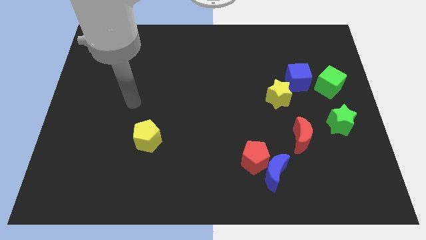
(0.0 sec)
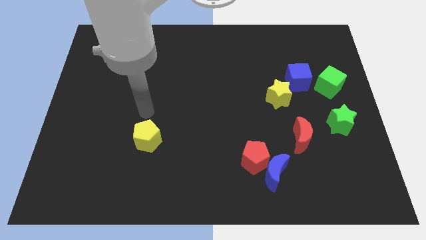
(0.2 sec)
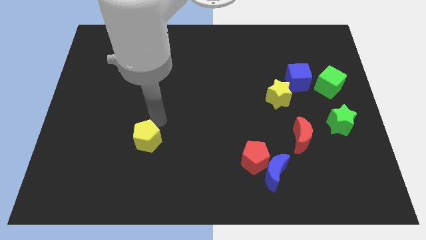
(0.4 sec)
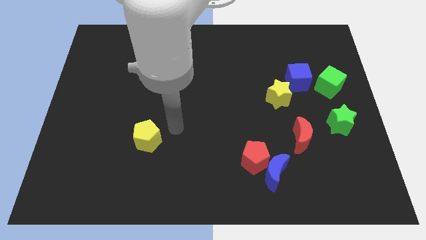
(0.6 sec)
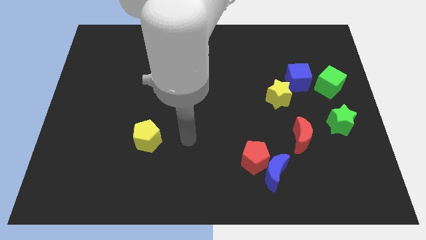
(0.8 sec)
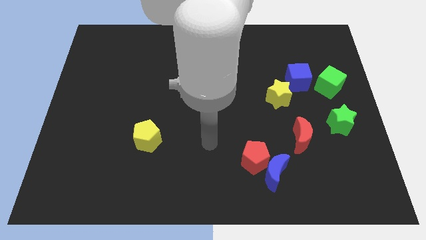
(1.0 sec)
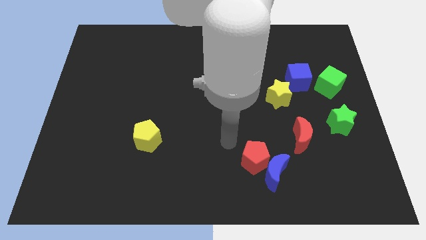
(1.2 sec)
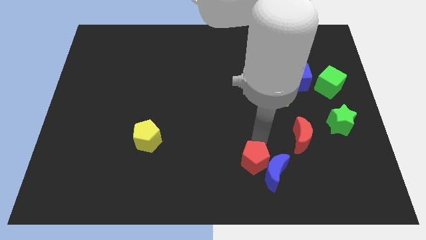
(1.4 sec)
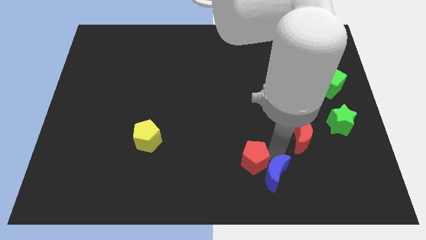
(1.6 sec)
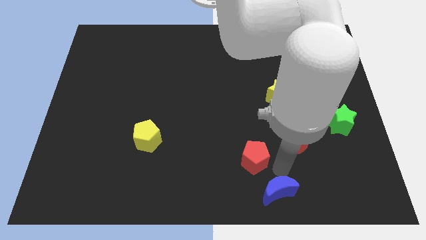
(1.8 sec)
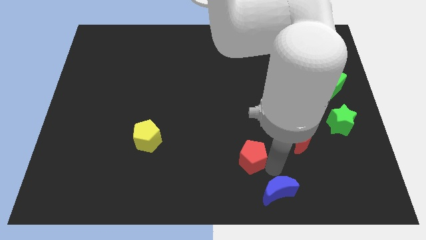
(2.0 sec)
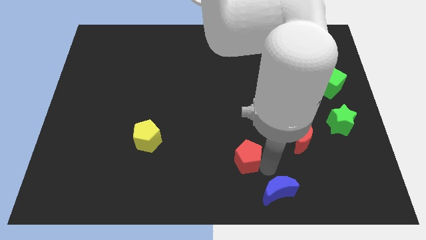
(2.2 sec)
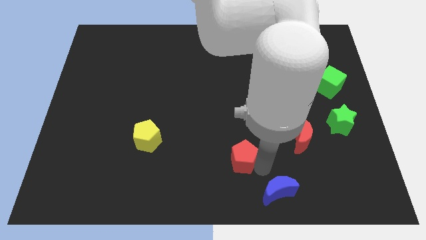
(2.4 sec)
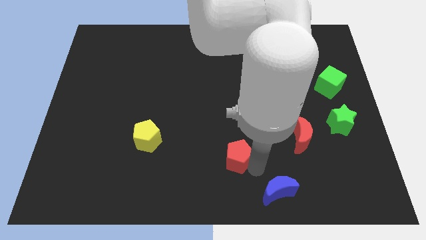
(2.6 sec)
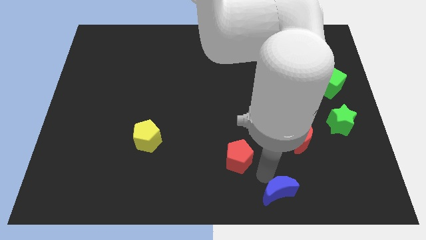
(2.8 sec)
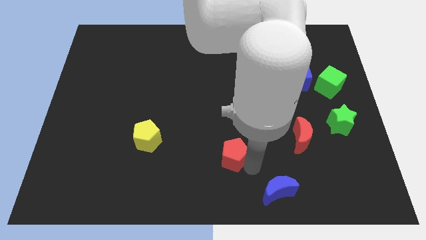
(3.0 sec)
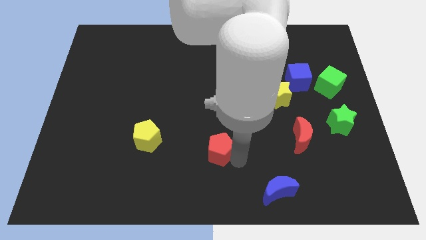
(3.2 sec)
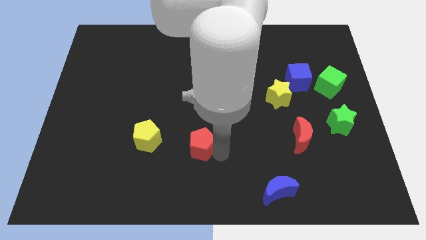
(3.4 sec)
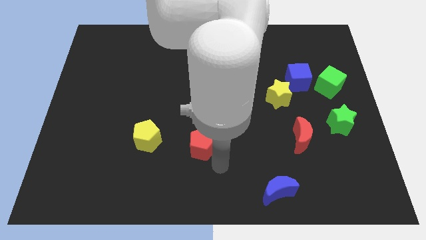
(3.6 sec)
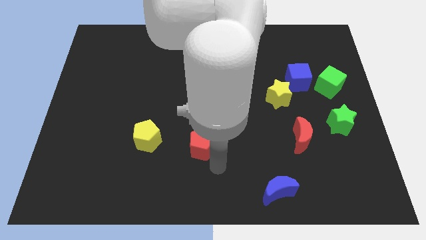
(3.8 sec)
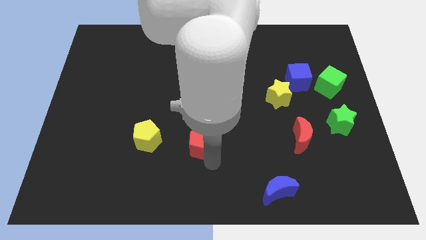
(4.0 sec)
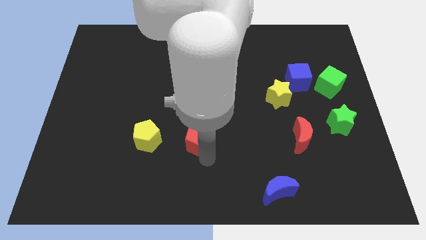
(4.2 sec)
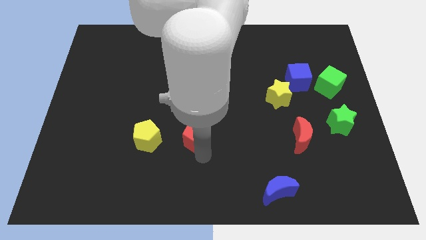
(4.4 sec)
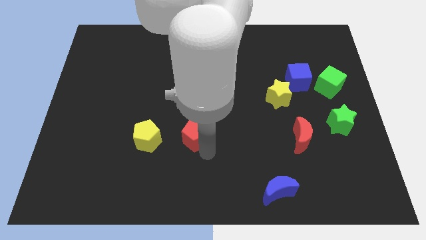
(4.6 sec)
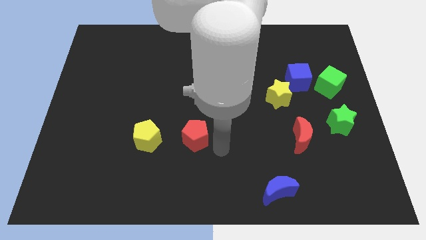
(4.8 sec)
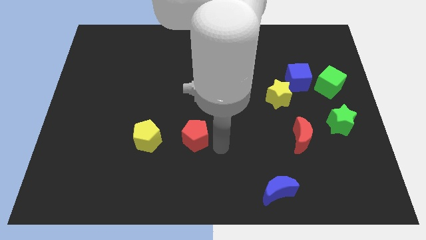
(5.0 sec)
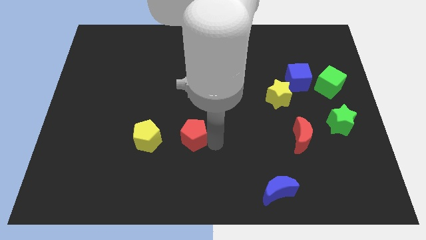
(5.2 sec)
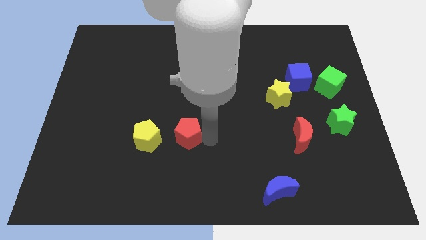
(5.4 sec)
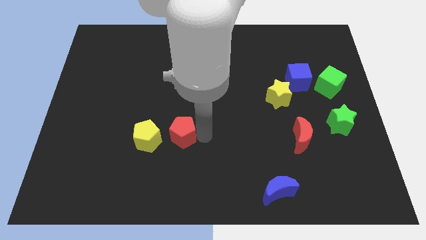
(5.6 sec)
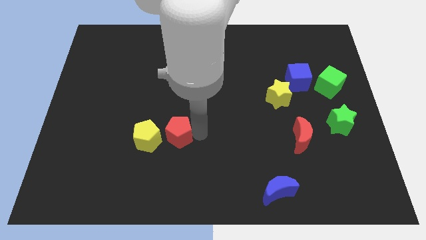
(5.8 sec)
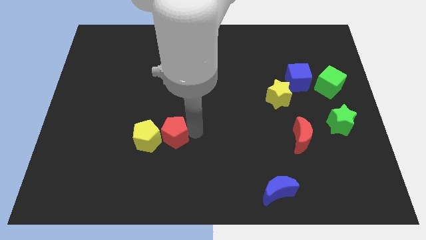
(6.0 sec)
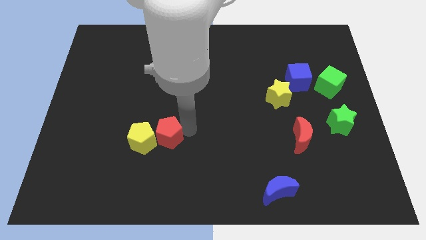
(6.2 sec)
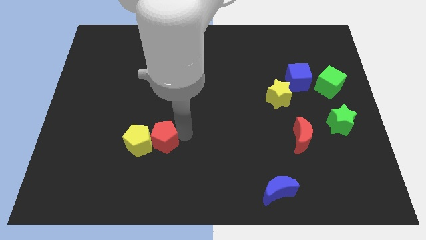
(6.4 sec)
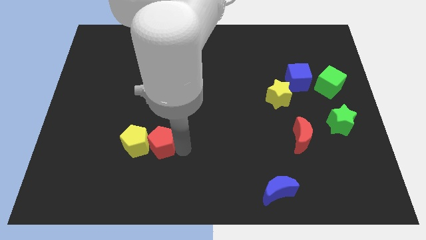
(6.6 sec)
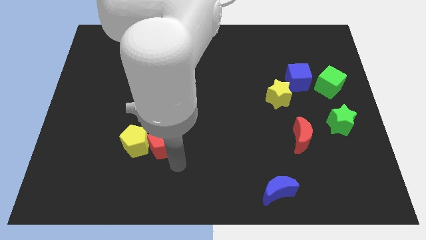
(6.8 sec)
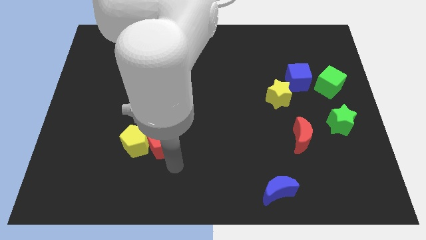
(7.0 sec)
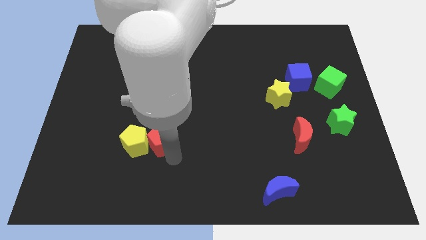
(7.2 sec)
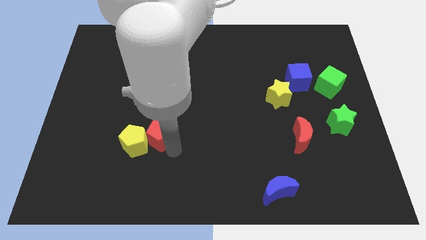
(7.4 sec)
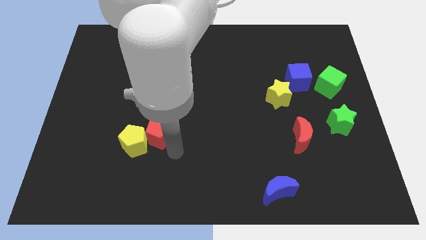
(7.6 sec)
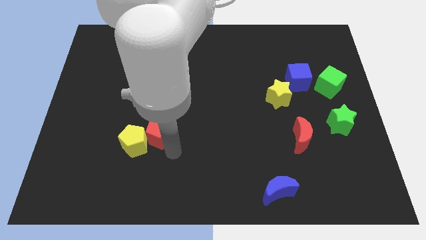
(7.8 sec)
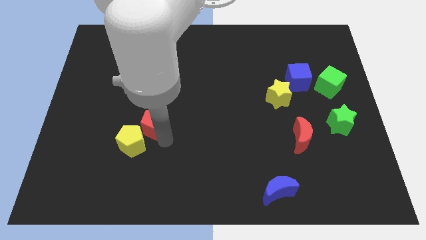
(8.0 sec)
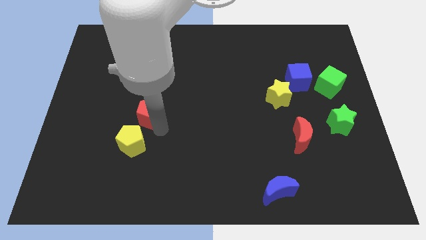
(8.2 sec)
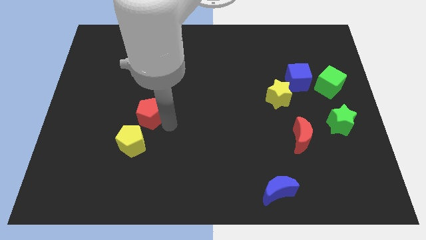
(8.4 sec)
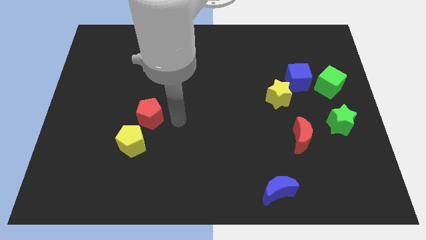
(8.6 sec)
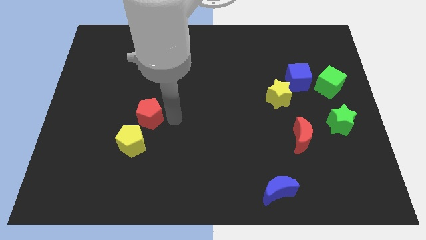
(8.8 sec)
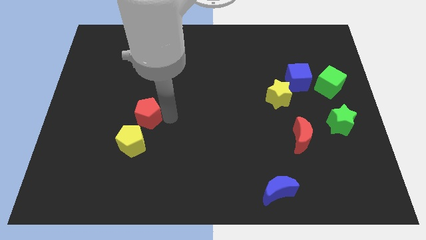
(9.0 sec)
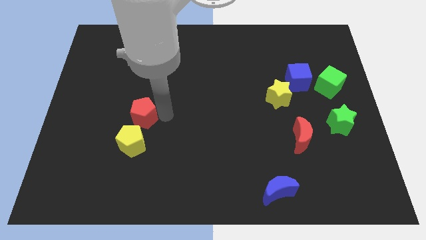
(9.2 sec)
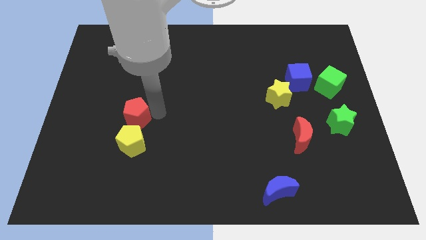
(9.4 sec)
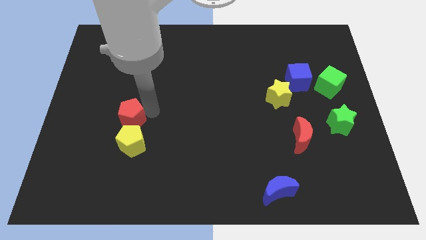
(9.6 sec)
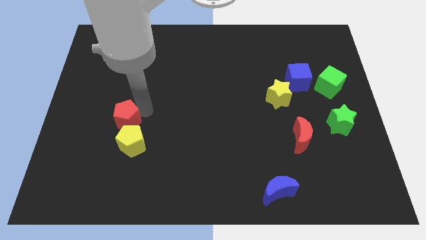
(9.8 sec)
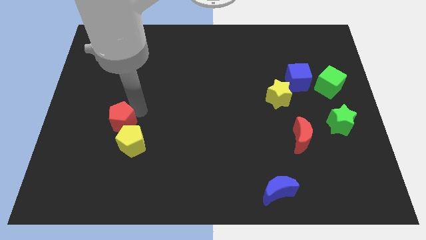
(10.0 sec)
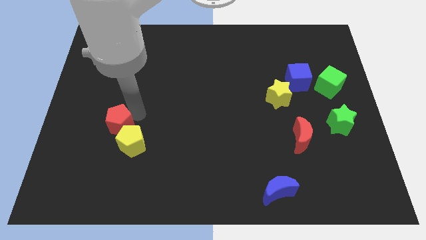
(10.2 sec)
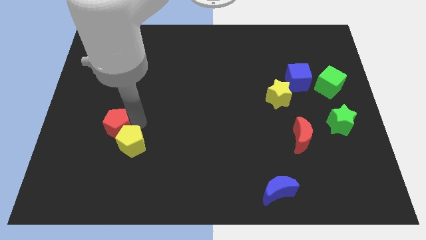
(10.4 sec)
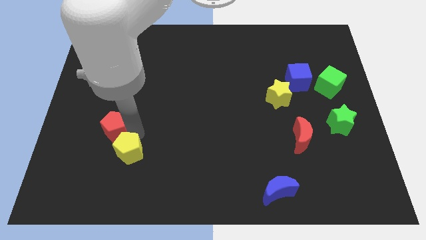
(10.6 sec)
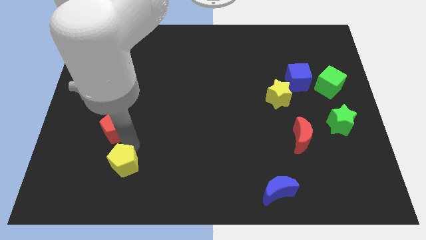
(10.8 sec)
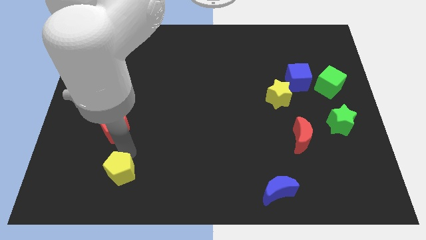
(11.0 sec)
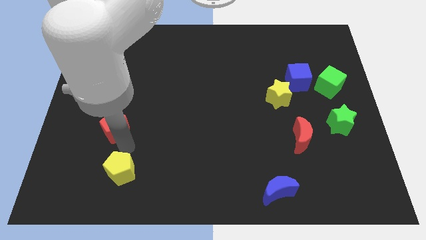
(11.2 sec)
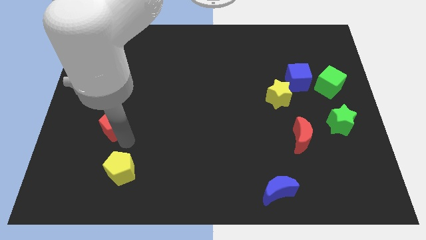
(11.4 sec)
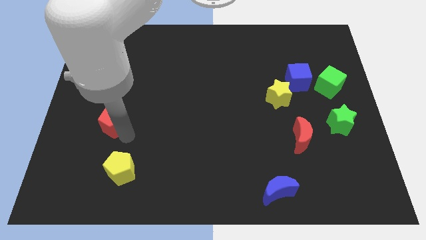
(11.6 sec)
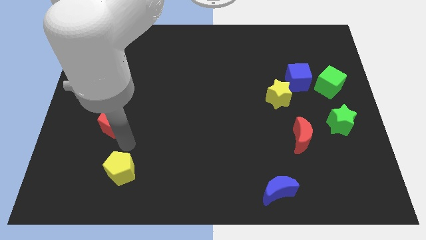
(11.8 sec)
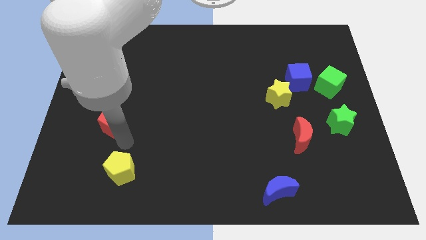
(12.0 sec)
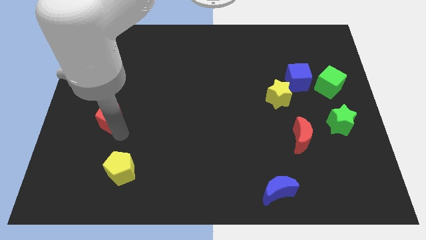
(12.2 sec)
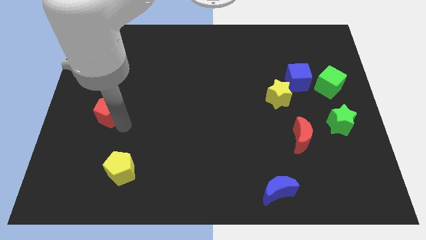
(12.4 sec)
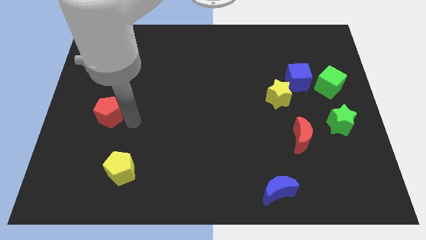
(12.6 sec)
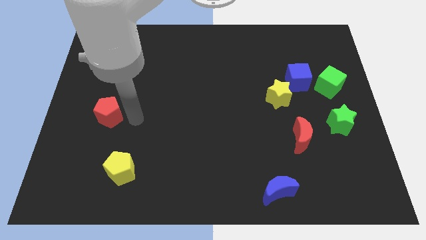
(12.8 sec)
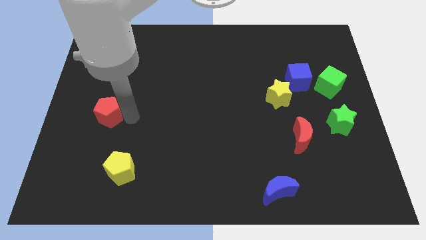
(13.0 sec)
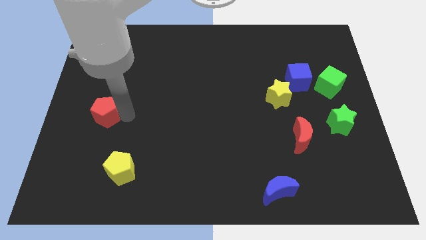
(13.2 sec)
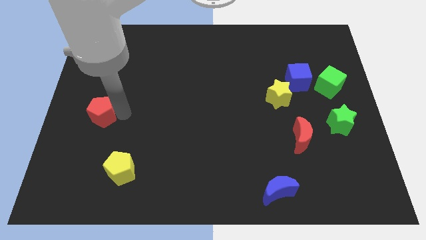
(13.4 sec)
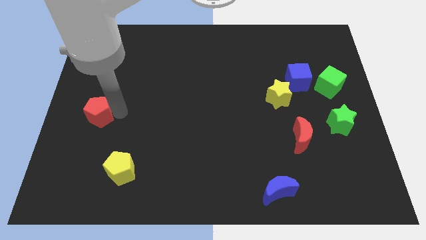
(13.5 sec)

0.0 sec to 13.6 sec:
push the red pentagon to the center left
